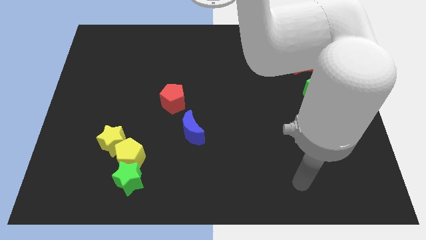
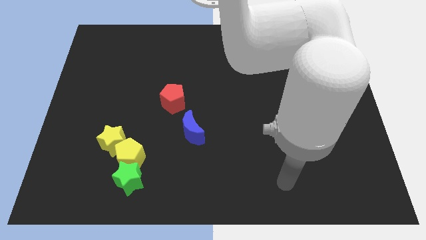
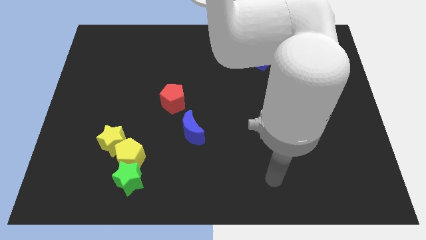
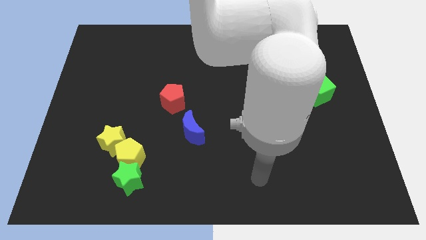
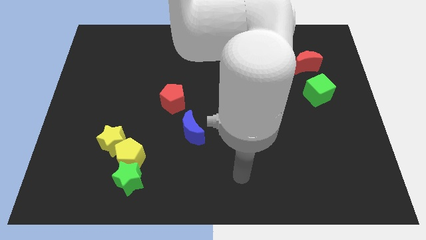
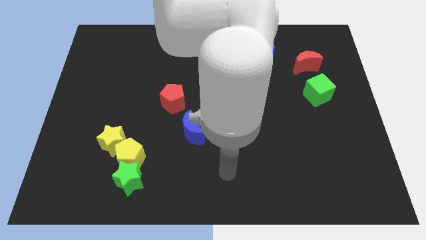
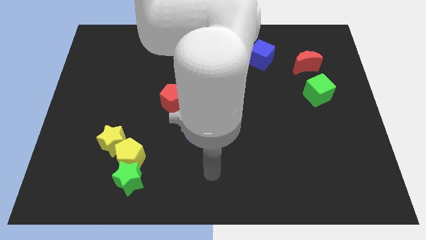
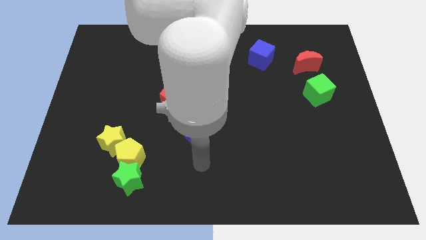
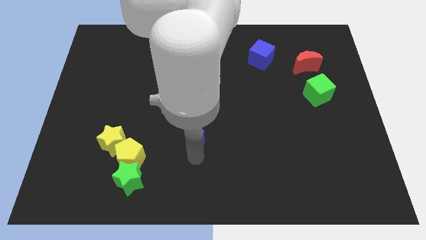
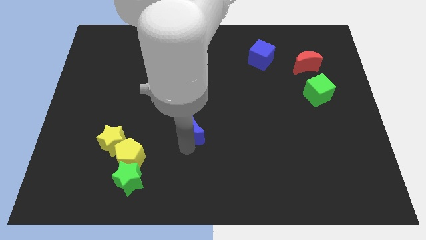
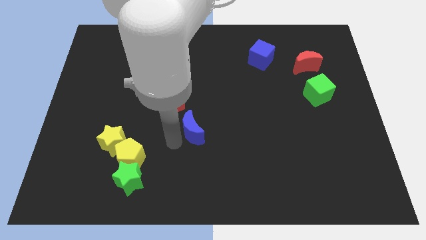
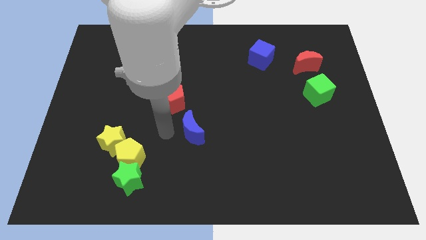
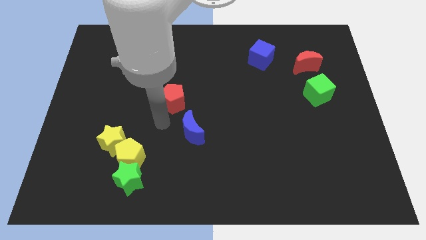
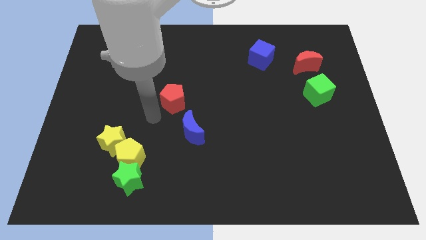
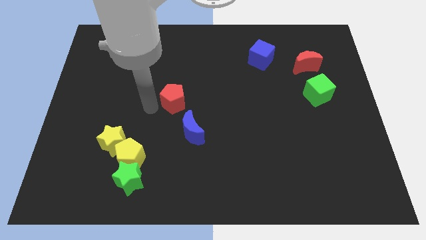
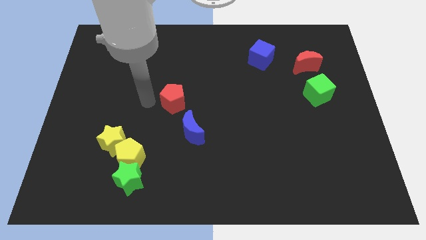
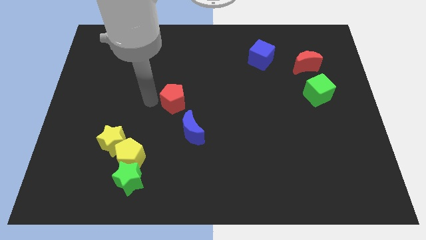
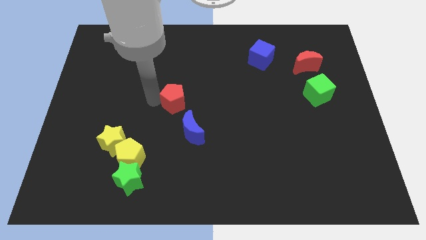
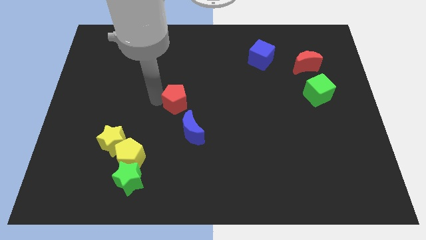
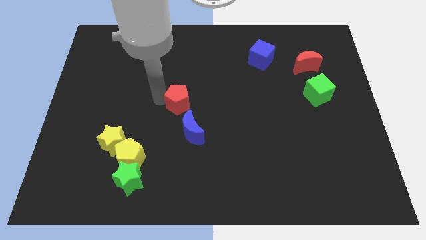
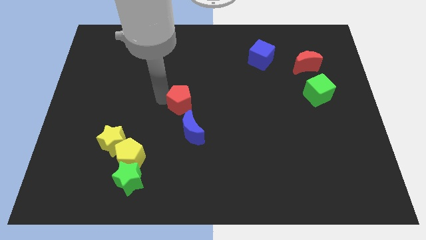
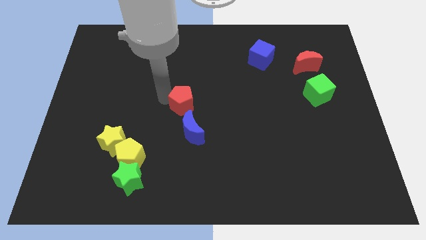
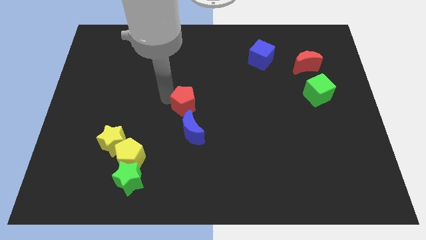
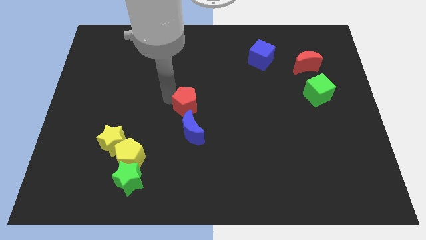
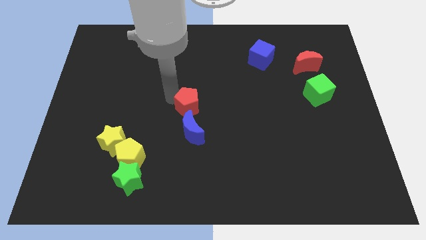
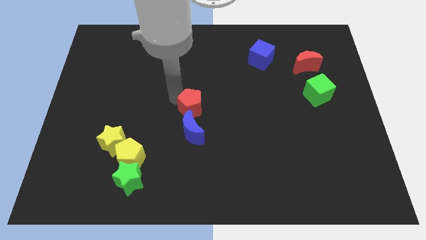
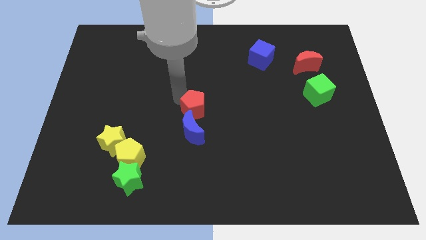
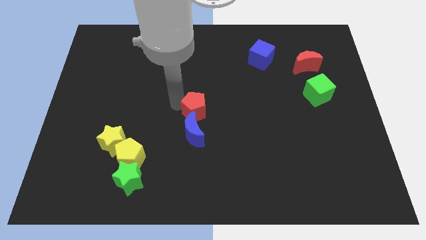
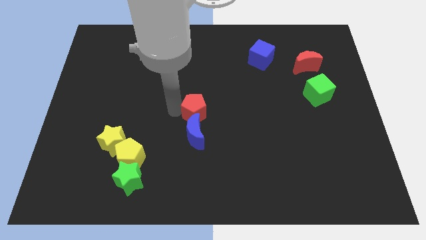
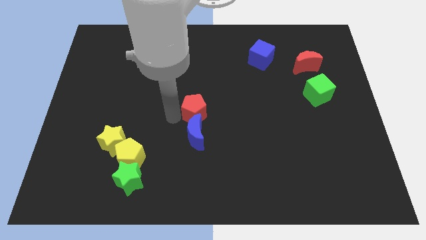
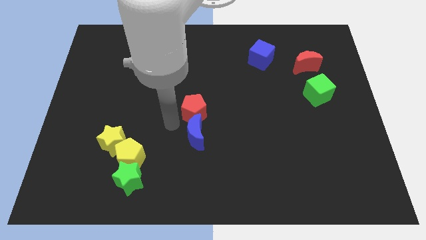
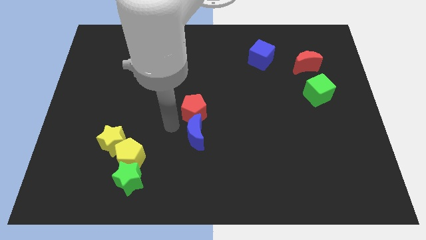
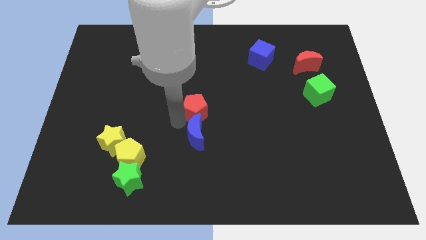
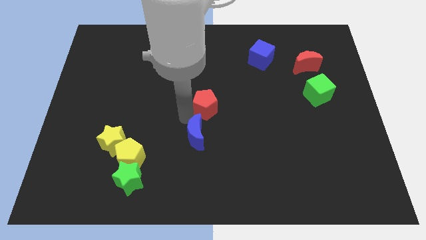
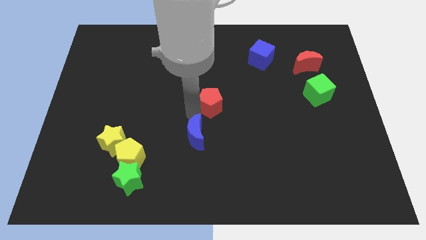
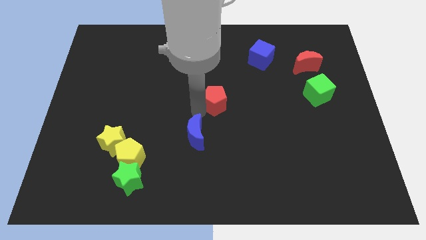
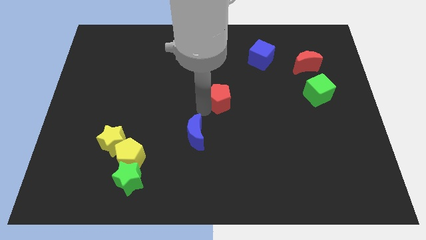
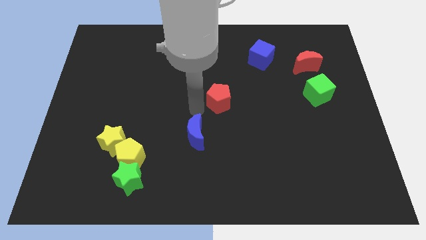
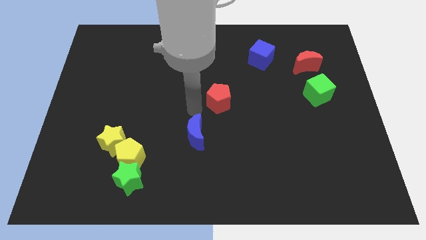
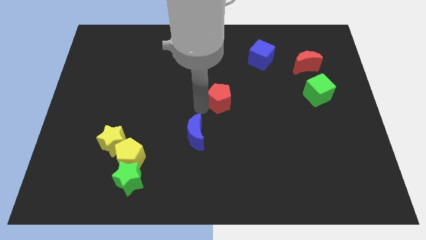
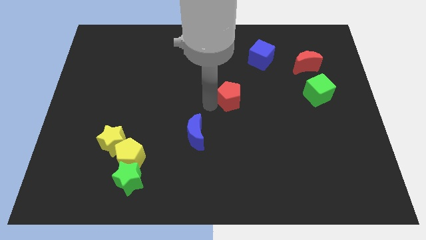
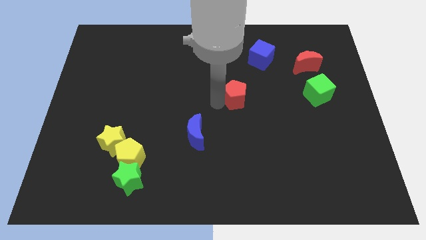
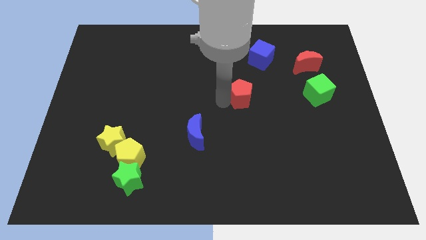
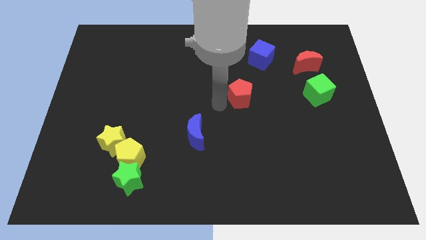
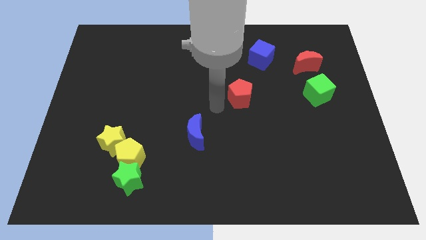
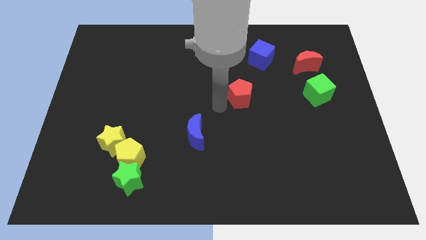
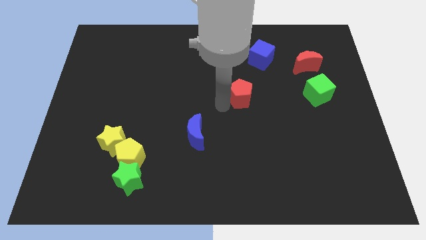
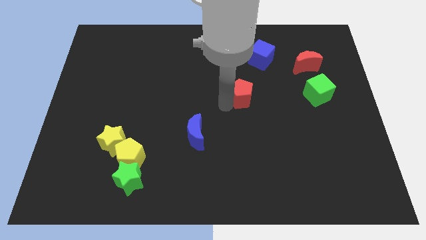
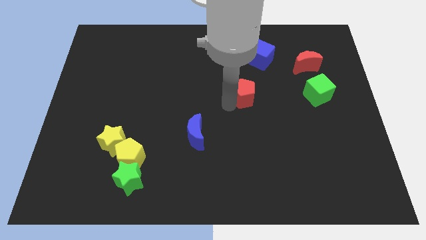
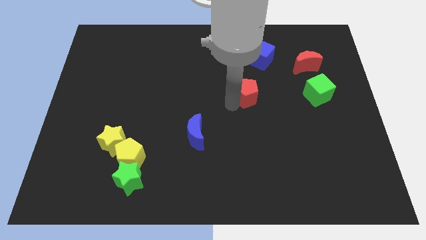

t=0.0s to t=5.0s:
move the red pentagon to the bottom side of the blue cube

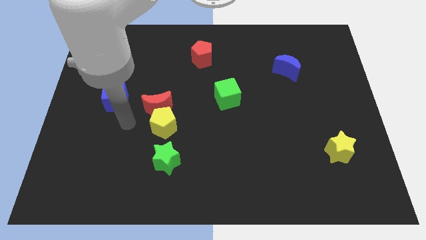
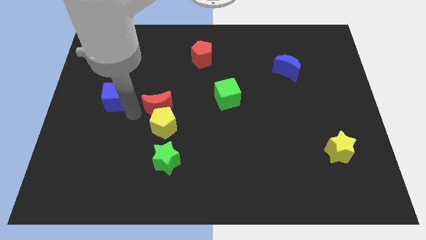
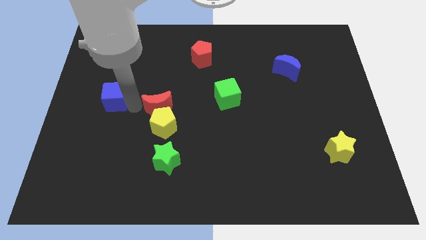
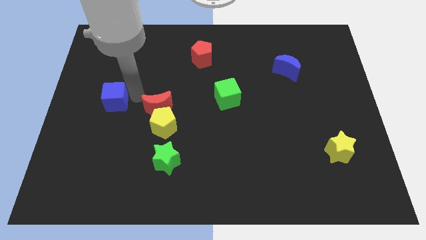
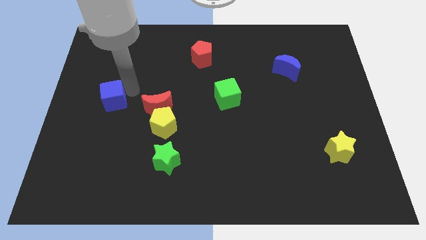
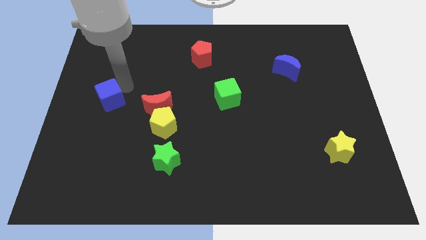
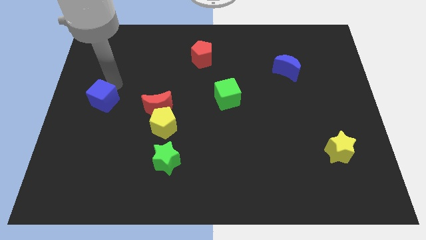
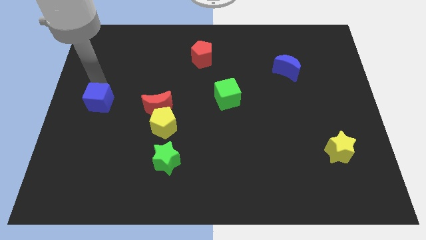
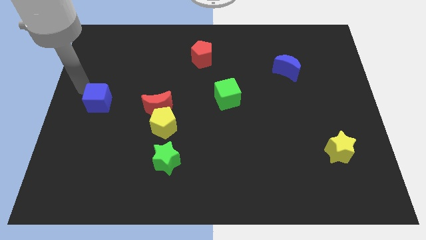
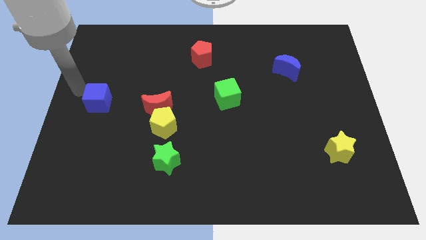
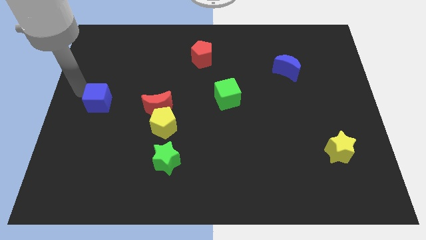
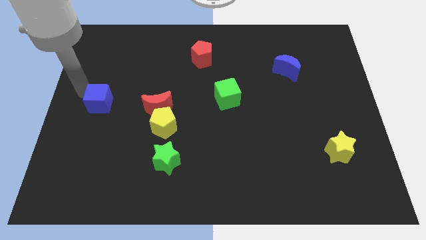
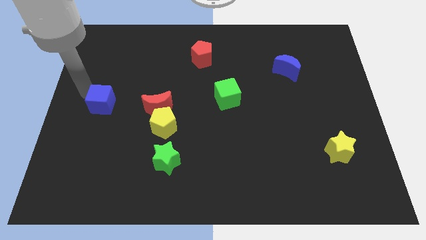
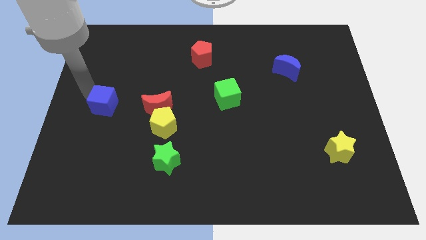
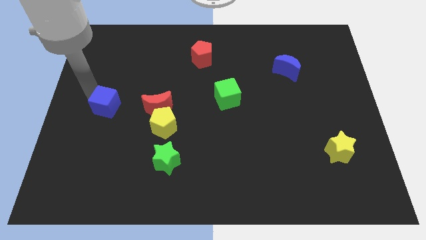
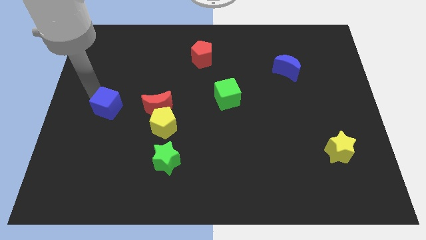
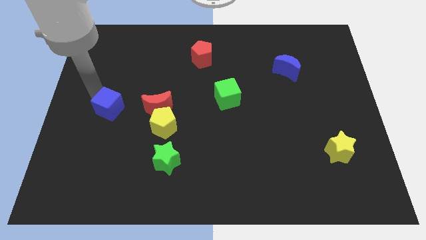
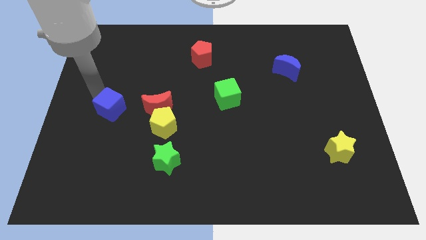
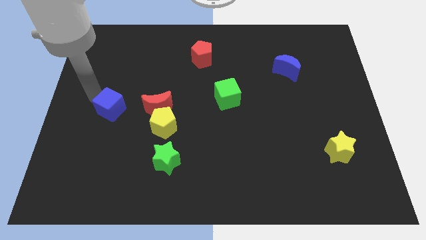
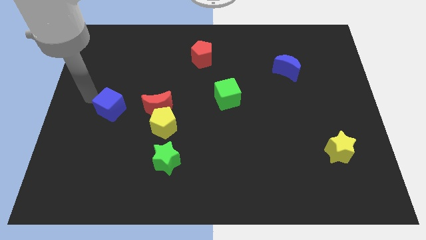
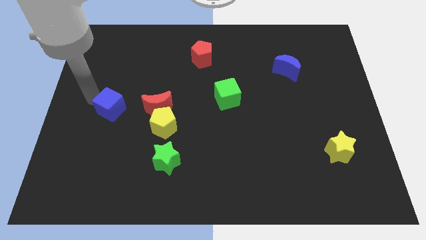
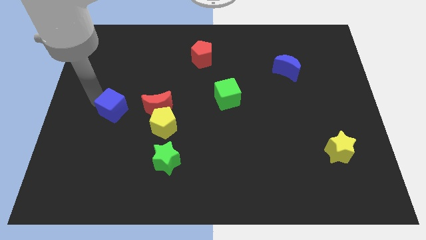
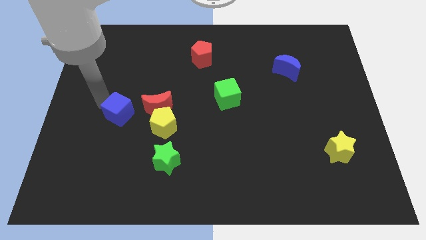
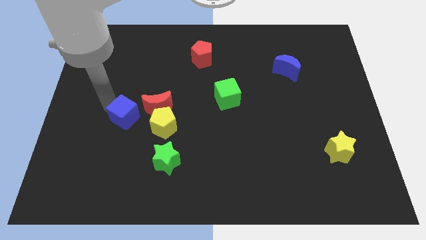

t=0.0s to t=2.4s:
slide the blue cube to the bottom left side of the red moon
